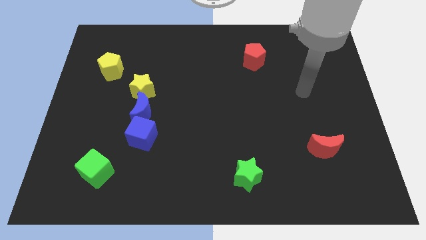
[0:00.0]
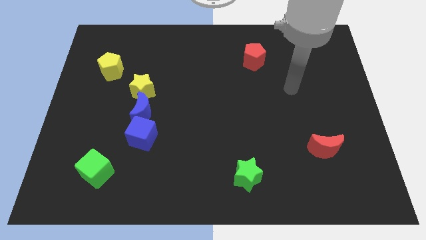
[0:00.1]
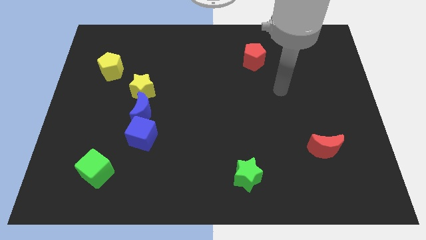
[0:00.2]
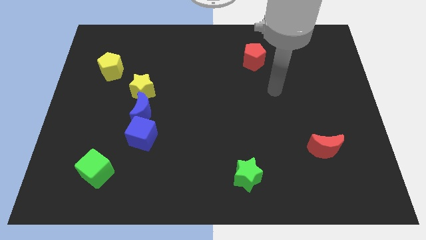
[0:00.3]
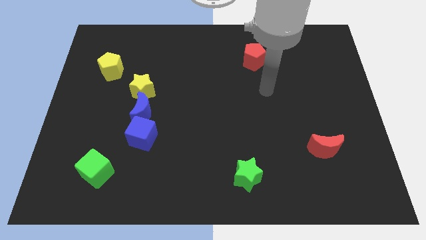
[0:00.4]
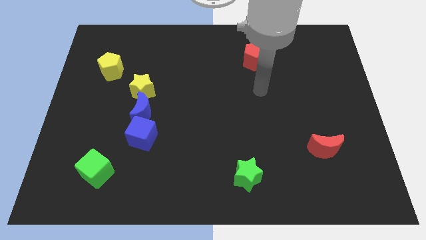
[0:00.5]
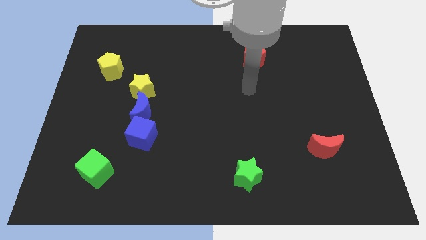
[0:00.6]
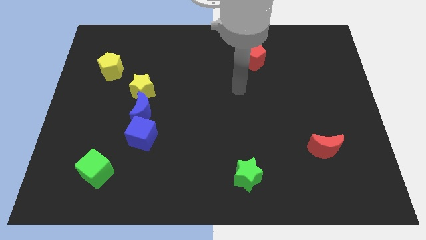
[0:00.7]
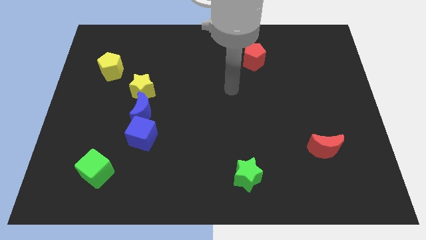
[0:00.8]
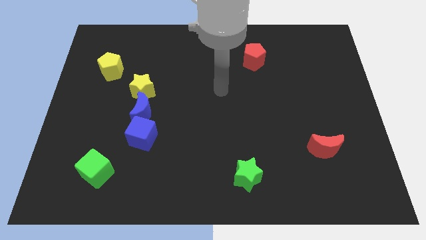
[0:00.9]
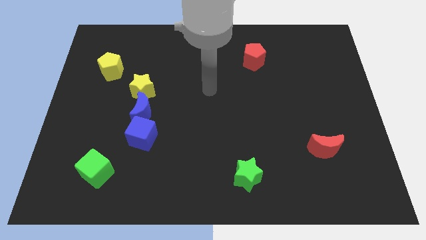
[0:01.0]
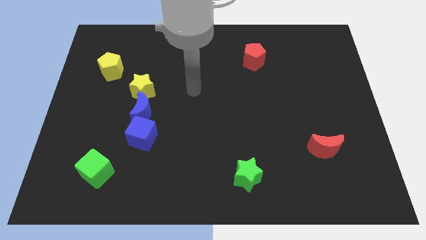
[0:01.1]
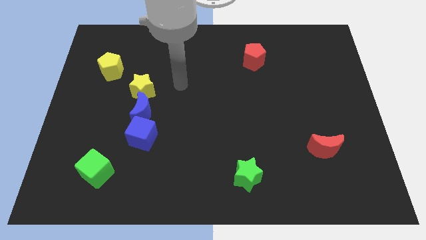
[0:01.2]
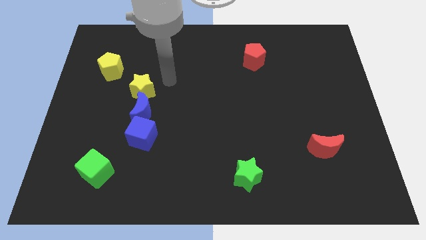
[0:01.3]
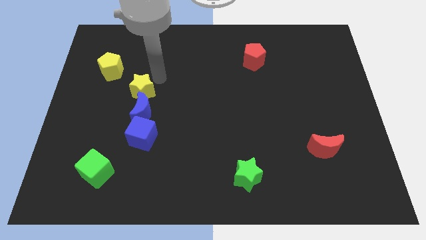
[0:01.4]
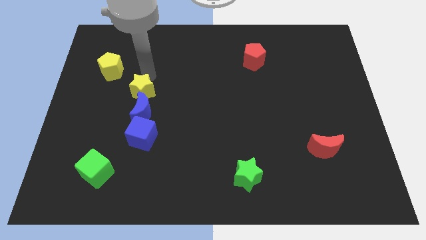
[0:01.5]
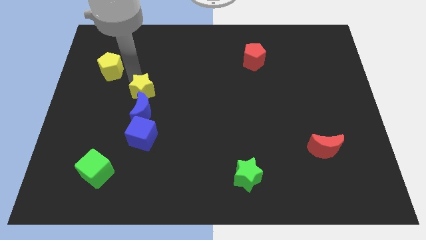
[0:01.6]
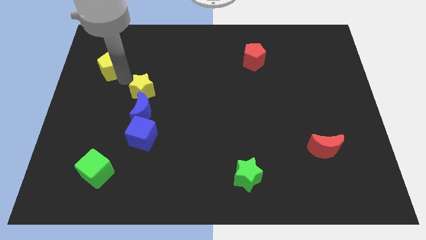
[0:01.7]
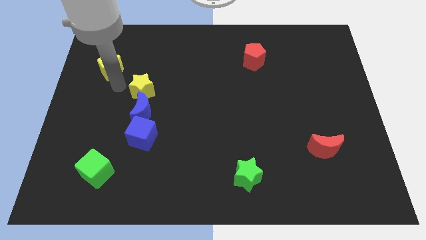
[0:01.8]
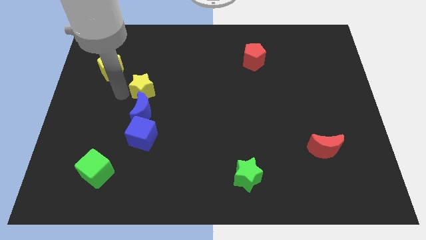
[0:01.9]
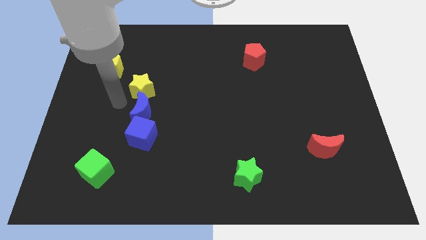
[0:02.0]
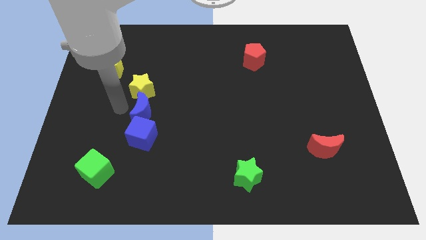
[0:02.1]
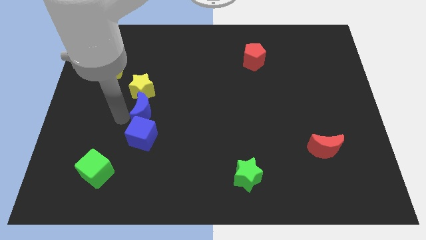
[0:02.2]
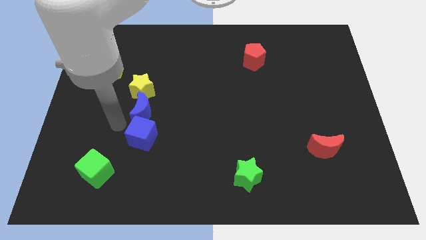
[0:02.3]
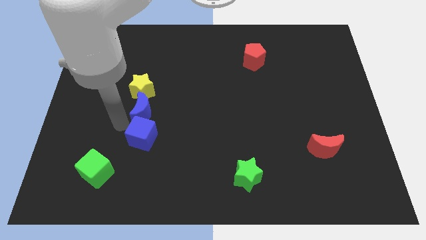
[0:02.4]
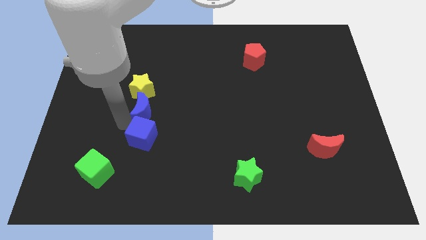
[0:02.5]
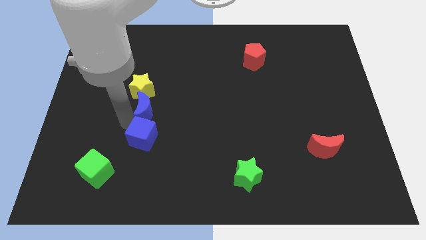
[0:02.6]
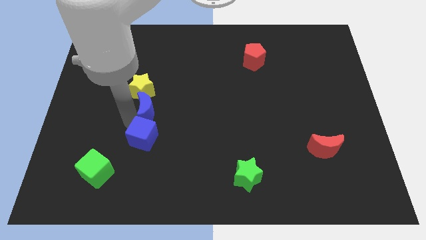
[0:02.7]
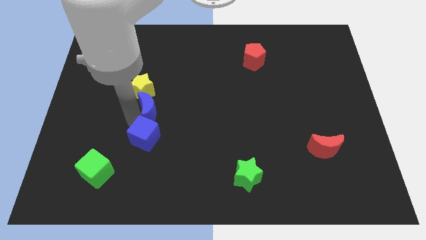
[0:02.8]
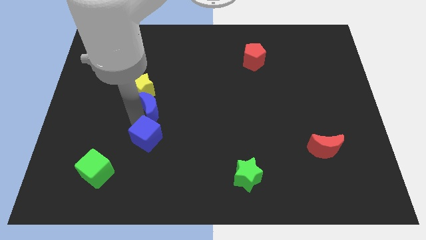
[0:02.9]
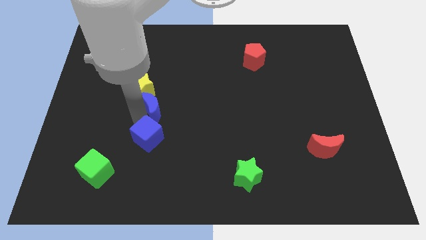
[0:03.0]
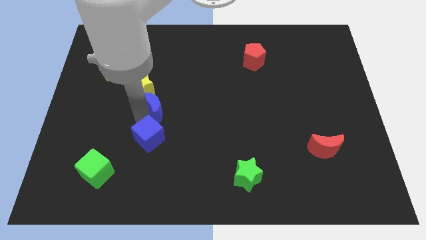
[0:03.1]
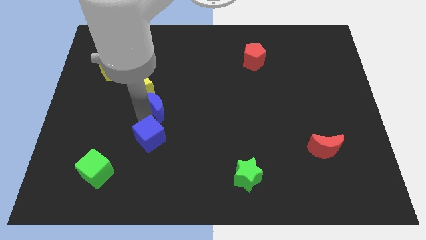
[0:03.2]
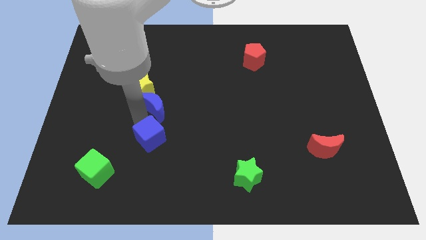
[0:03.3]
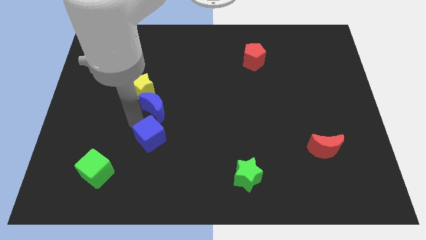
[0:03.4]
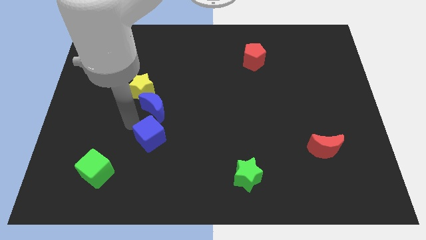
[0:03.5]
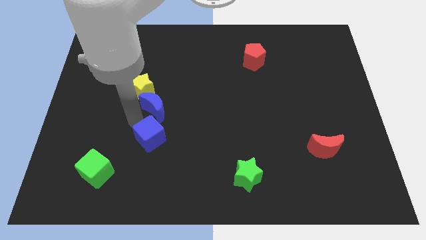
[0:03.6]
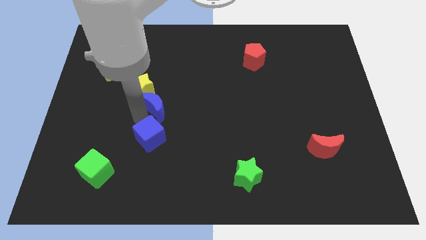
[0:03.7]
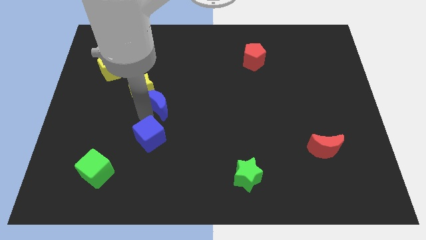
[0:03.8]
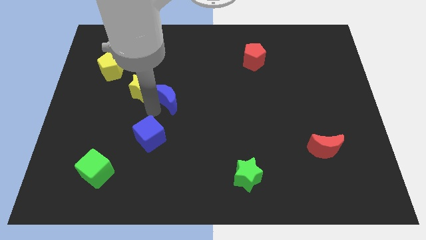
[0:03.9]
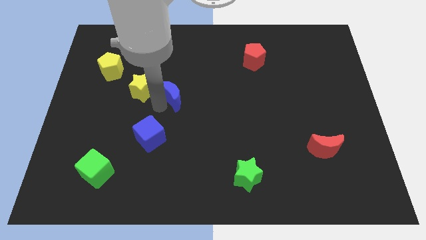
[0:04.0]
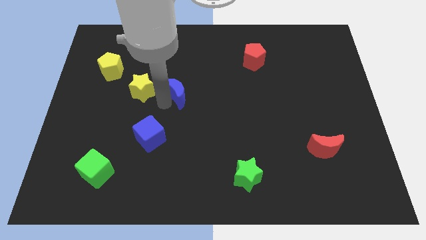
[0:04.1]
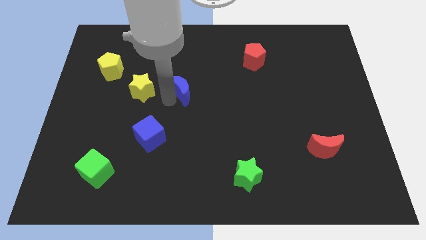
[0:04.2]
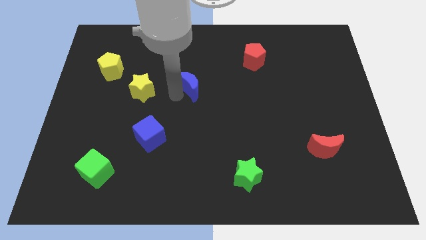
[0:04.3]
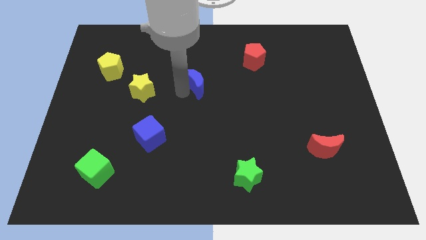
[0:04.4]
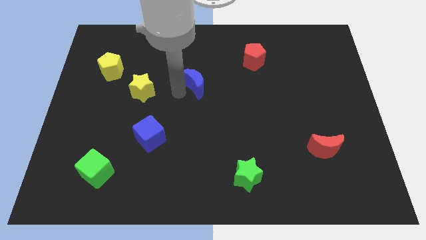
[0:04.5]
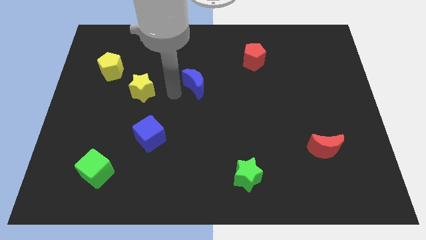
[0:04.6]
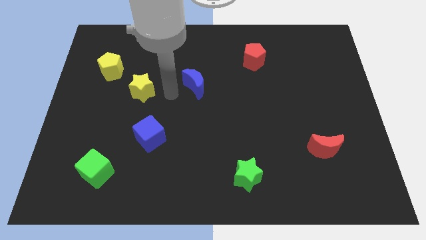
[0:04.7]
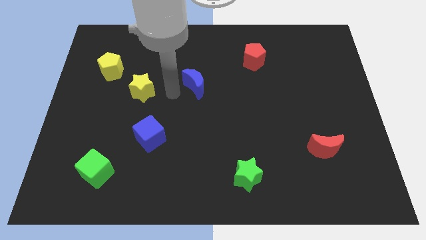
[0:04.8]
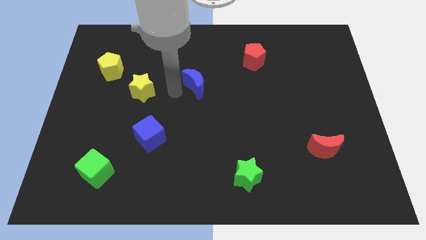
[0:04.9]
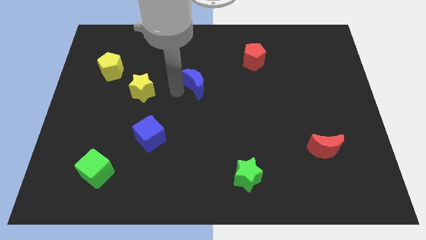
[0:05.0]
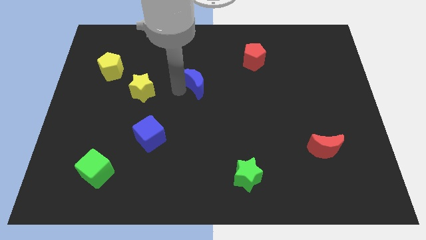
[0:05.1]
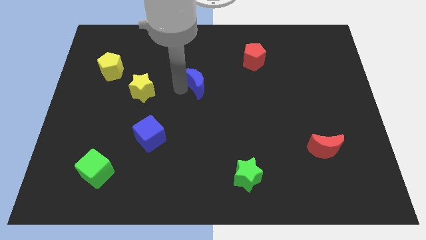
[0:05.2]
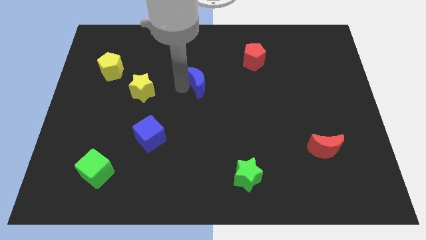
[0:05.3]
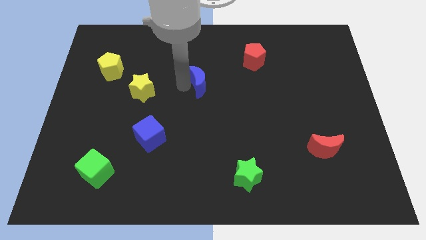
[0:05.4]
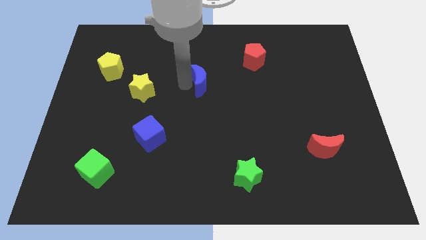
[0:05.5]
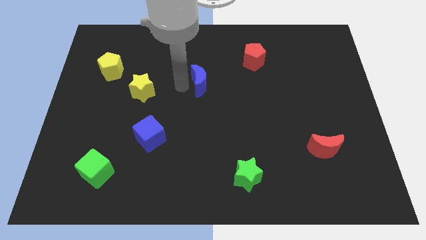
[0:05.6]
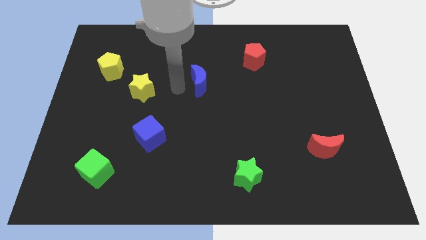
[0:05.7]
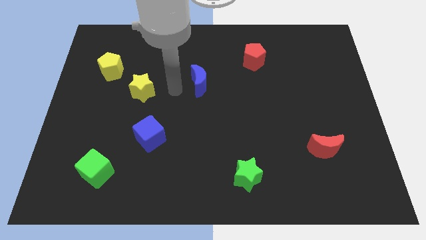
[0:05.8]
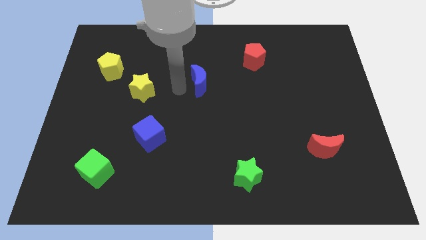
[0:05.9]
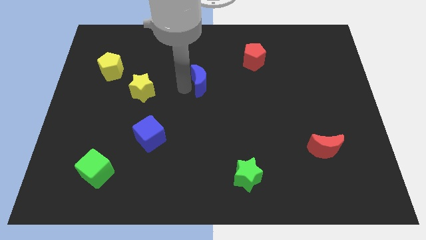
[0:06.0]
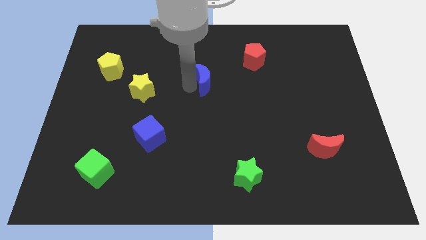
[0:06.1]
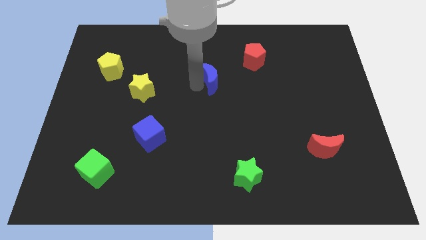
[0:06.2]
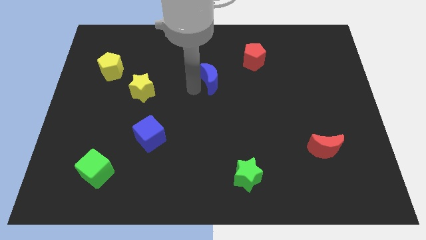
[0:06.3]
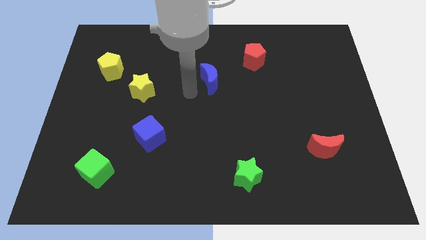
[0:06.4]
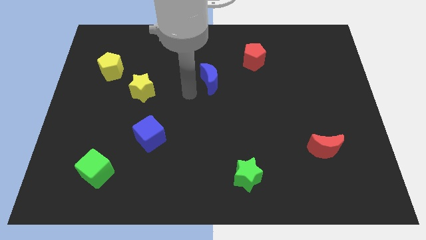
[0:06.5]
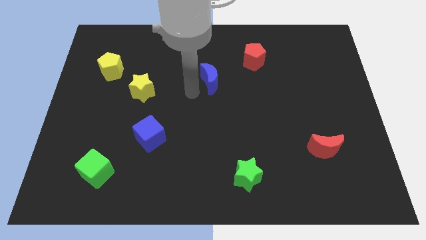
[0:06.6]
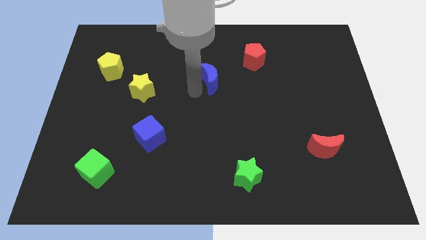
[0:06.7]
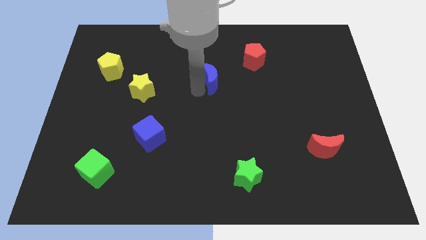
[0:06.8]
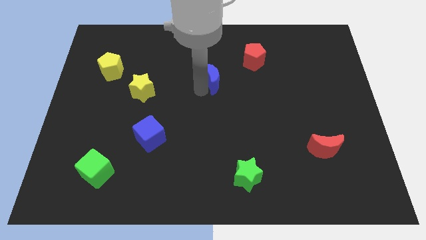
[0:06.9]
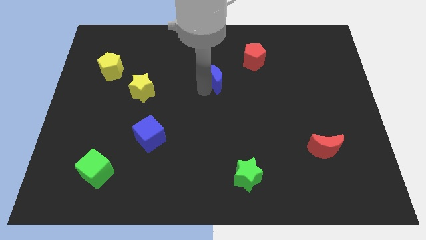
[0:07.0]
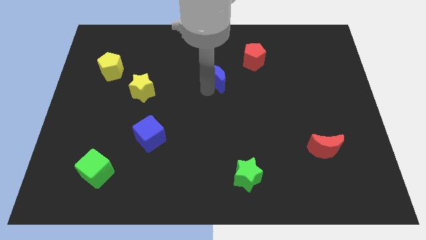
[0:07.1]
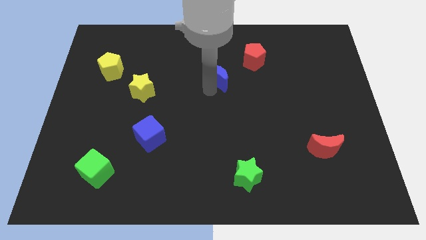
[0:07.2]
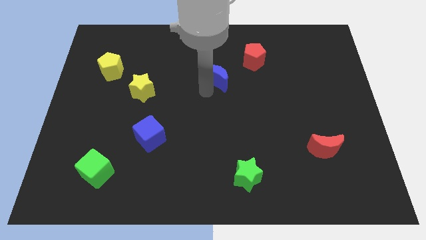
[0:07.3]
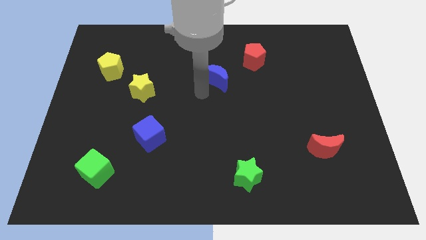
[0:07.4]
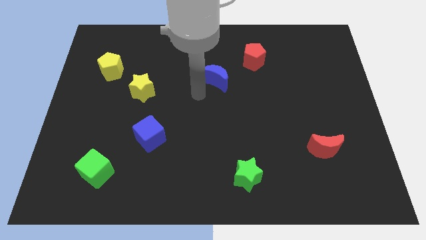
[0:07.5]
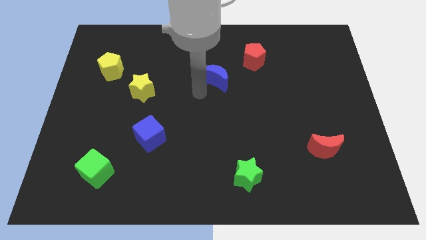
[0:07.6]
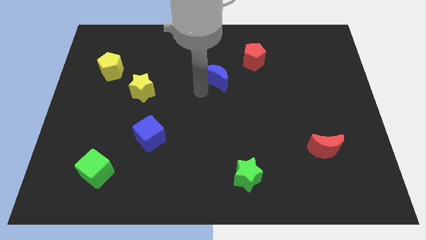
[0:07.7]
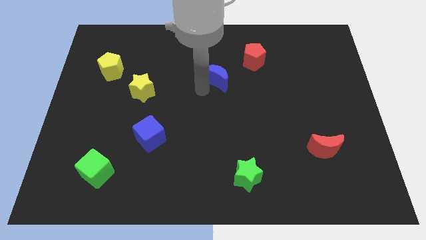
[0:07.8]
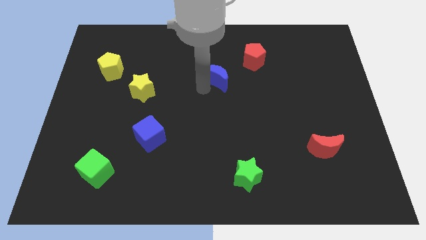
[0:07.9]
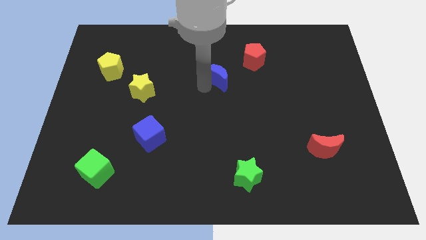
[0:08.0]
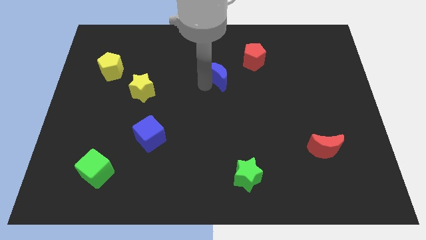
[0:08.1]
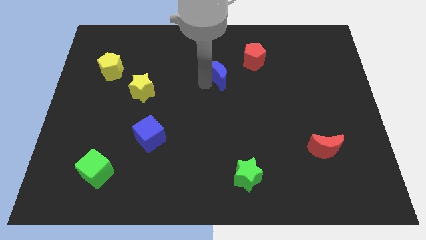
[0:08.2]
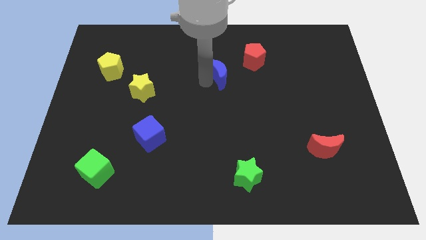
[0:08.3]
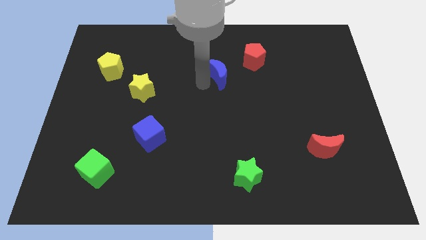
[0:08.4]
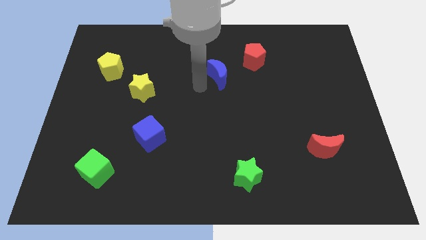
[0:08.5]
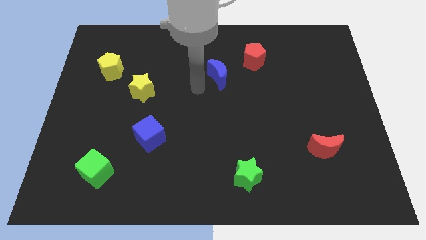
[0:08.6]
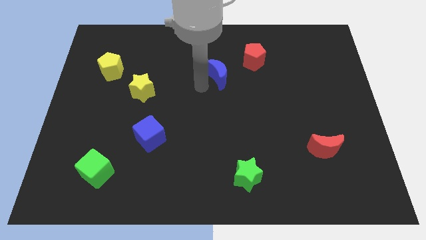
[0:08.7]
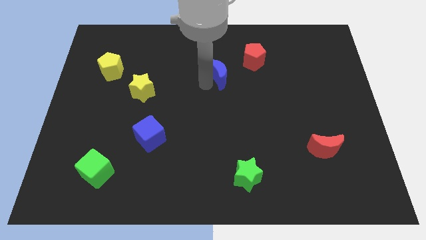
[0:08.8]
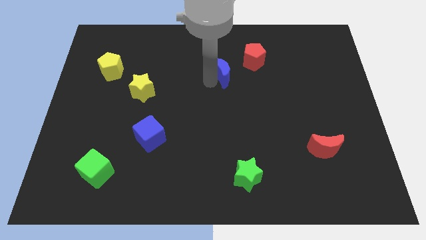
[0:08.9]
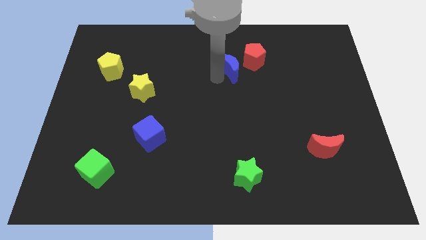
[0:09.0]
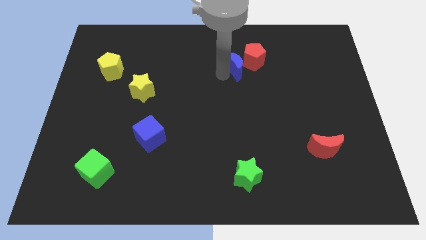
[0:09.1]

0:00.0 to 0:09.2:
put the blue moon towards the red pentagon
